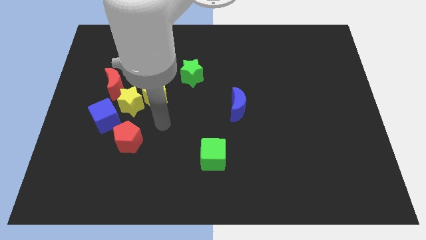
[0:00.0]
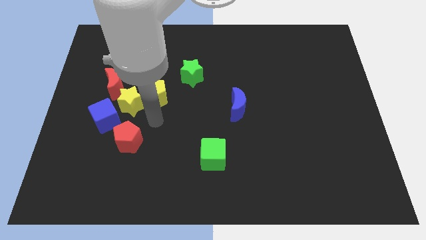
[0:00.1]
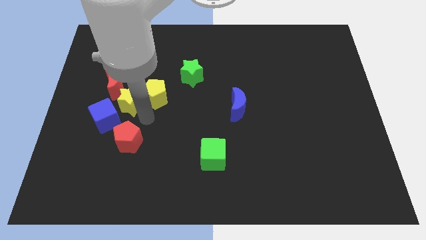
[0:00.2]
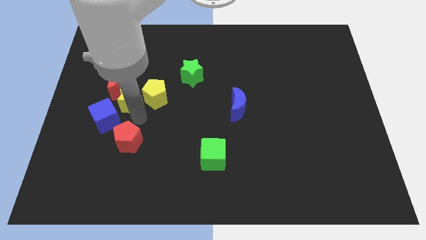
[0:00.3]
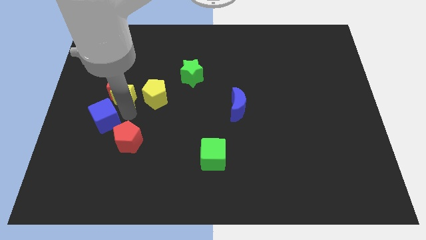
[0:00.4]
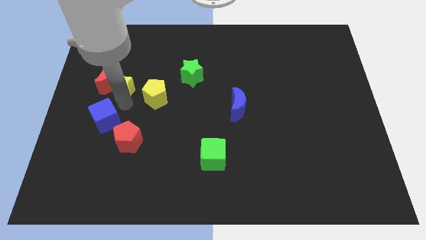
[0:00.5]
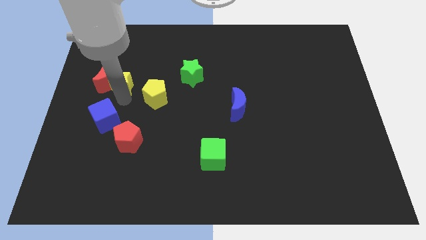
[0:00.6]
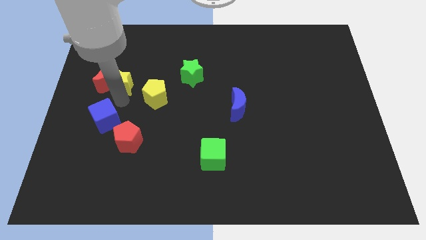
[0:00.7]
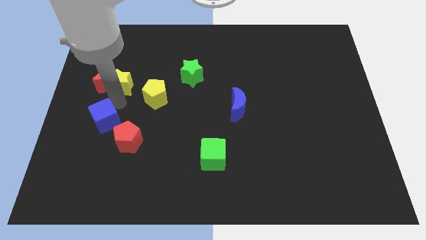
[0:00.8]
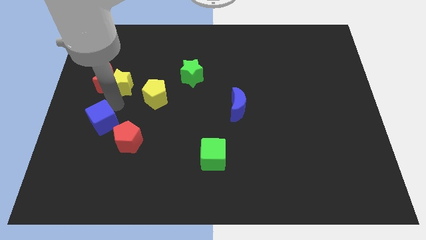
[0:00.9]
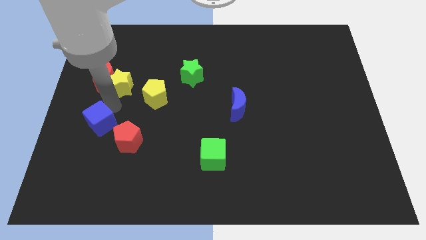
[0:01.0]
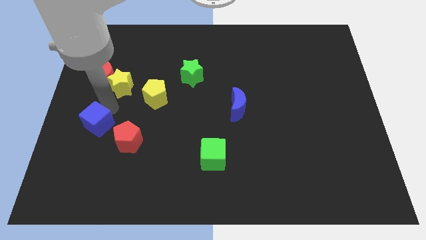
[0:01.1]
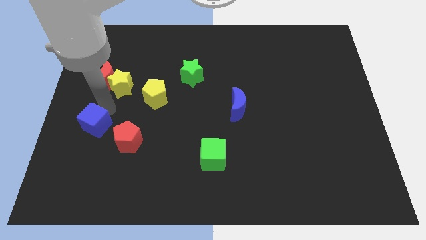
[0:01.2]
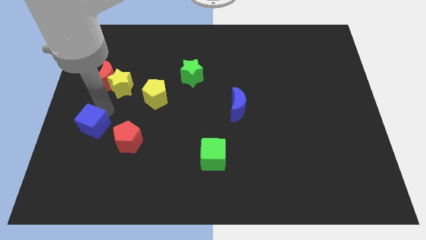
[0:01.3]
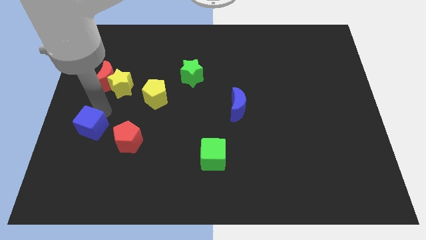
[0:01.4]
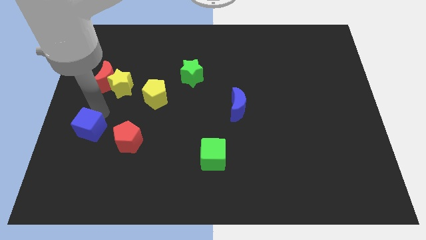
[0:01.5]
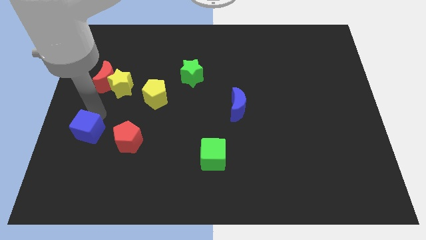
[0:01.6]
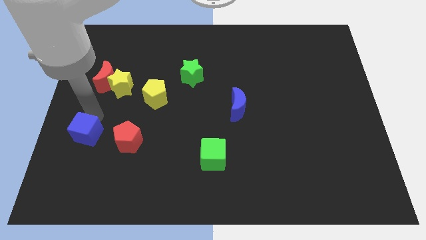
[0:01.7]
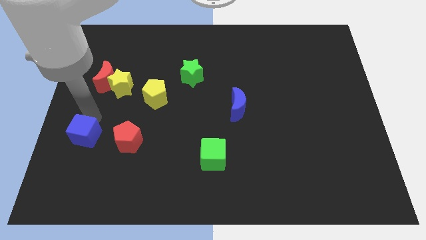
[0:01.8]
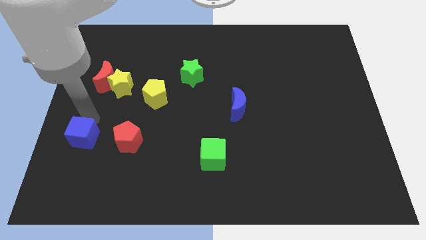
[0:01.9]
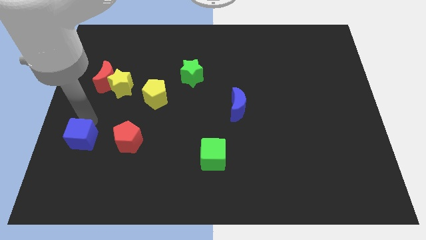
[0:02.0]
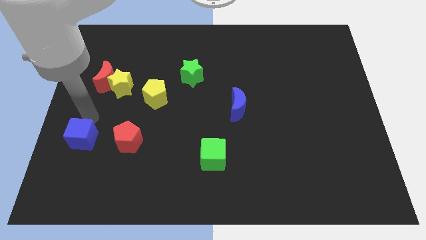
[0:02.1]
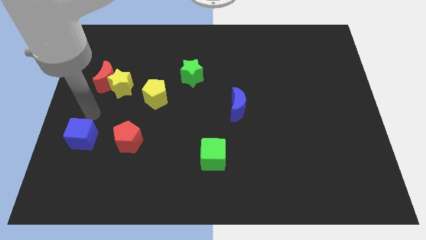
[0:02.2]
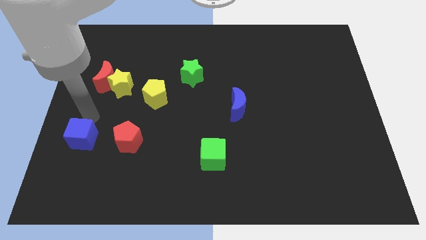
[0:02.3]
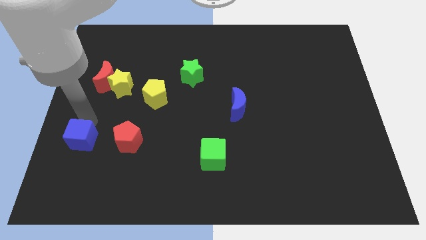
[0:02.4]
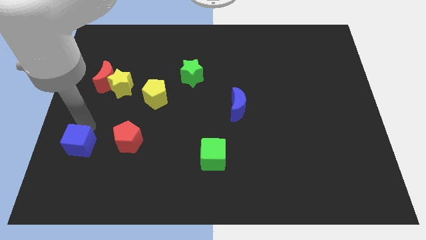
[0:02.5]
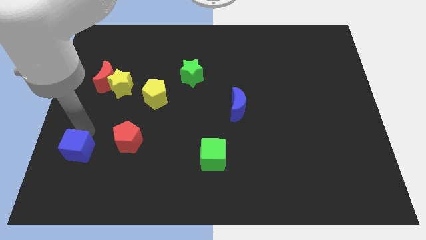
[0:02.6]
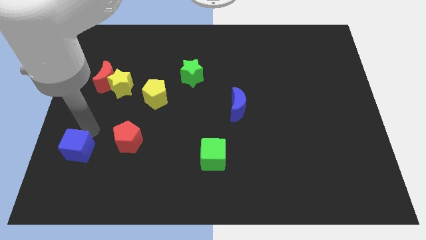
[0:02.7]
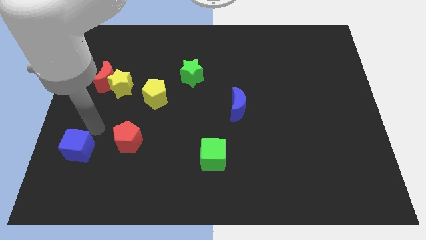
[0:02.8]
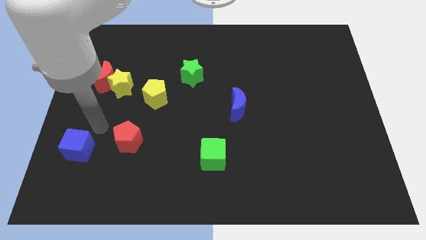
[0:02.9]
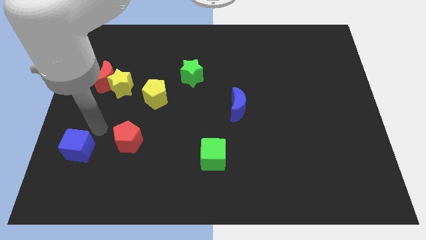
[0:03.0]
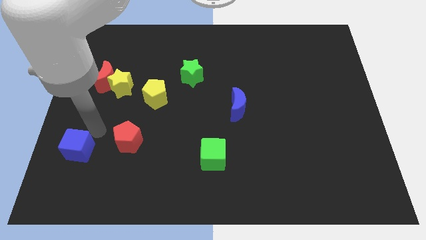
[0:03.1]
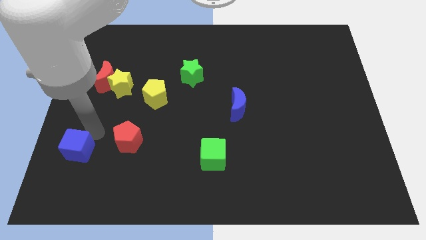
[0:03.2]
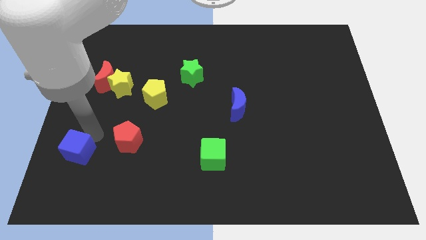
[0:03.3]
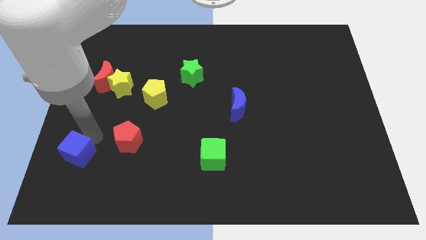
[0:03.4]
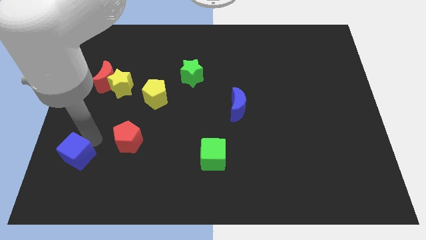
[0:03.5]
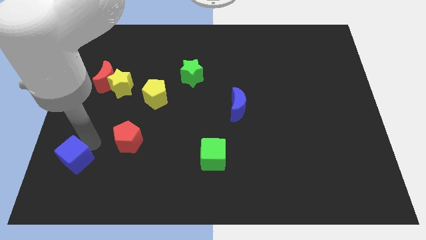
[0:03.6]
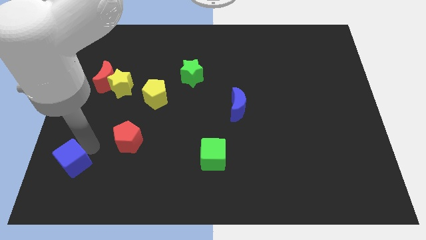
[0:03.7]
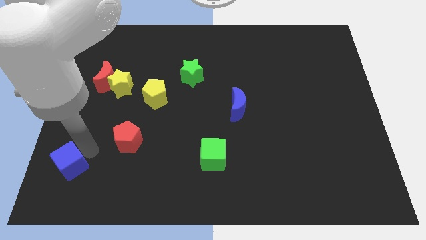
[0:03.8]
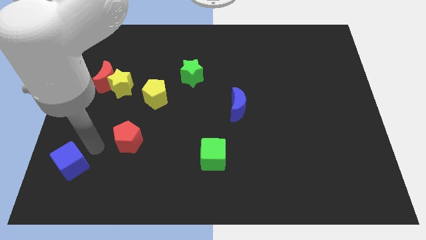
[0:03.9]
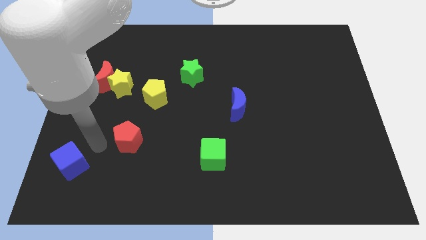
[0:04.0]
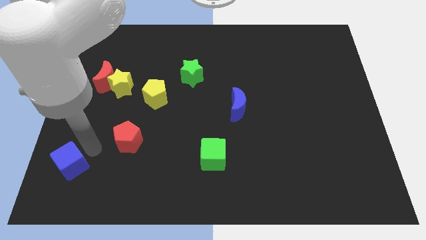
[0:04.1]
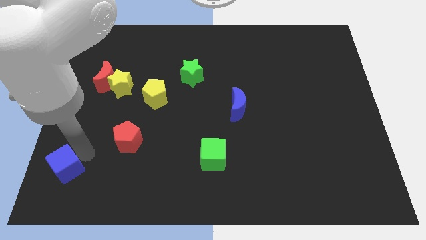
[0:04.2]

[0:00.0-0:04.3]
slide the blue cube to the lower left corner

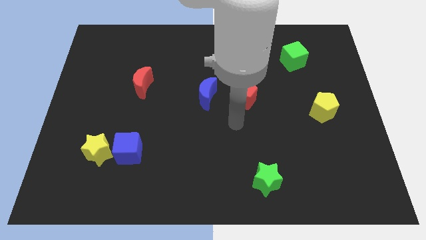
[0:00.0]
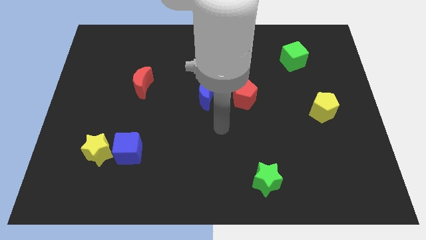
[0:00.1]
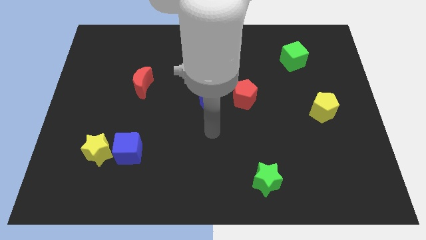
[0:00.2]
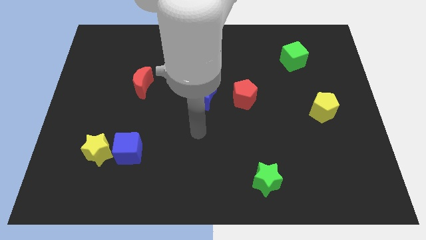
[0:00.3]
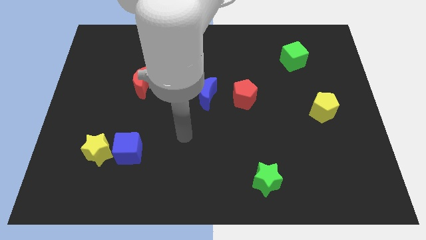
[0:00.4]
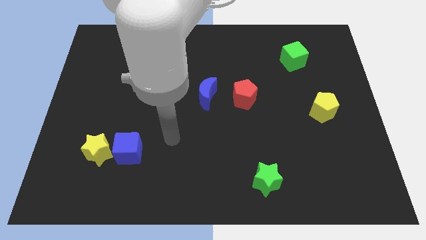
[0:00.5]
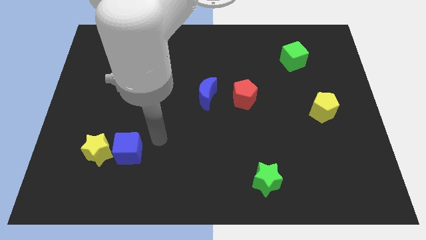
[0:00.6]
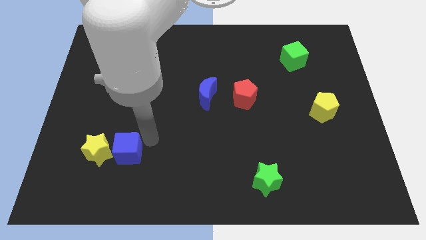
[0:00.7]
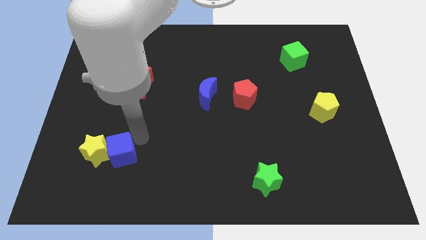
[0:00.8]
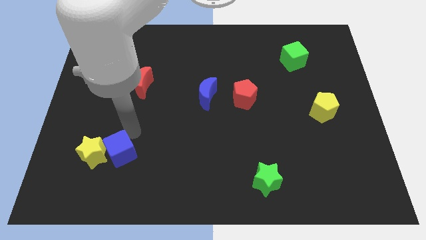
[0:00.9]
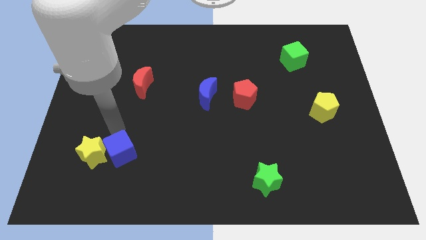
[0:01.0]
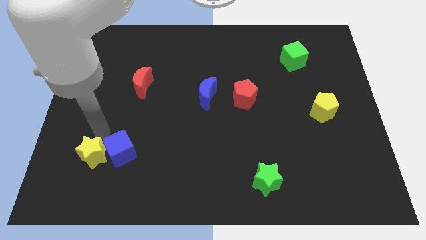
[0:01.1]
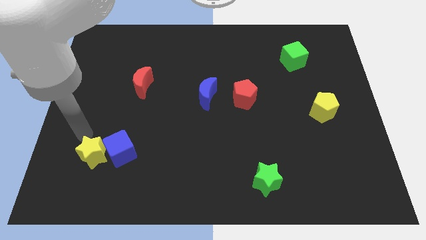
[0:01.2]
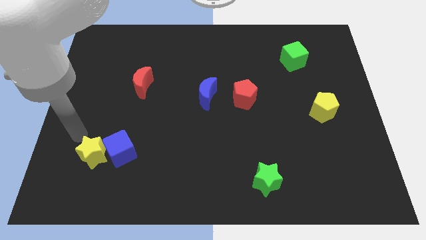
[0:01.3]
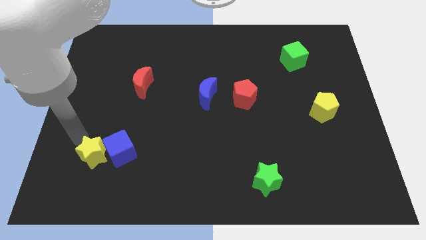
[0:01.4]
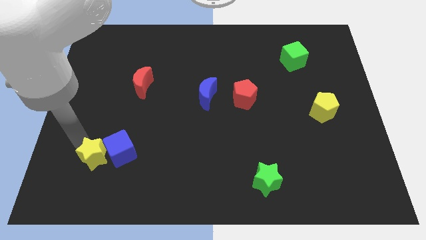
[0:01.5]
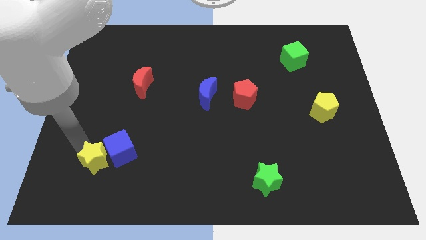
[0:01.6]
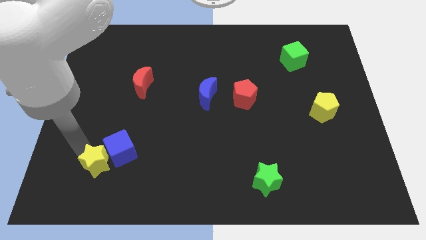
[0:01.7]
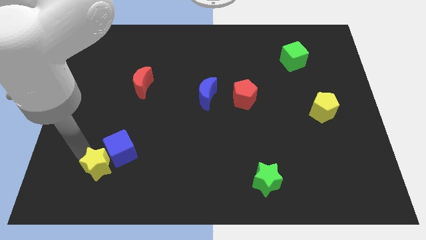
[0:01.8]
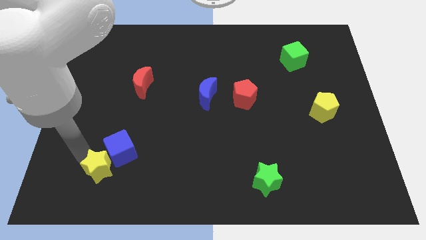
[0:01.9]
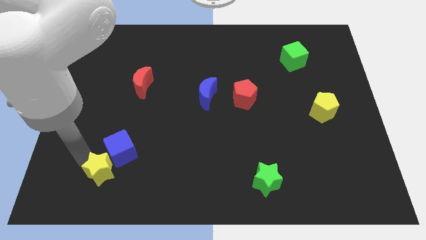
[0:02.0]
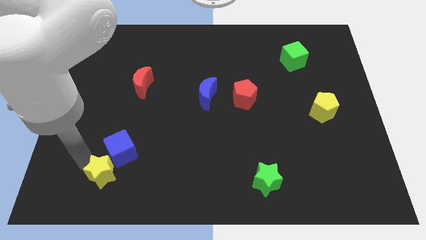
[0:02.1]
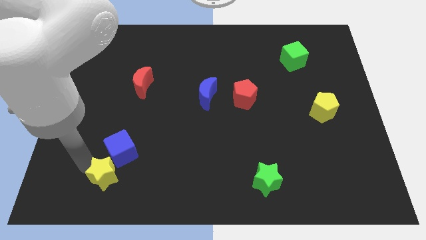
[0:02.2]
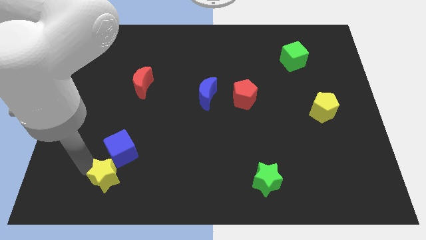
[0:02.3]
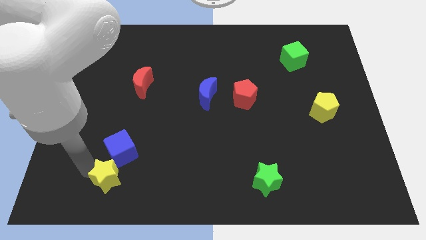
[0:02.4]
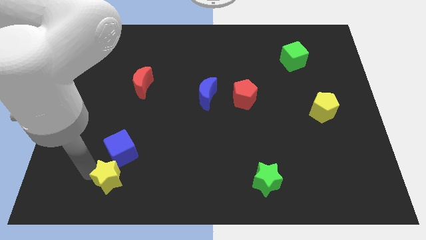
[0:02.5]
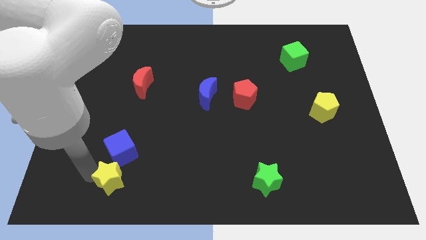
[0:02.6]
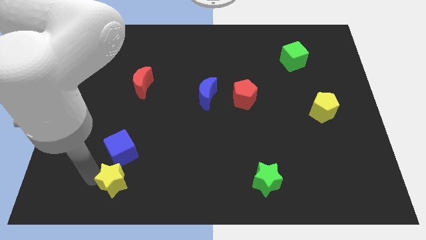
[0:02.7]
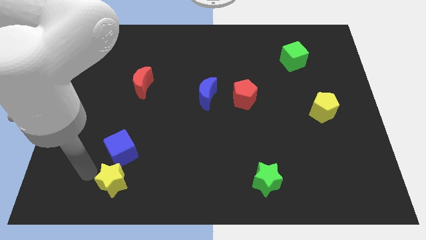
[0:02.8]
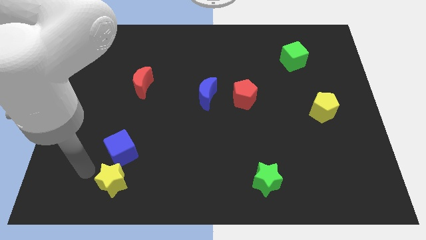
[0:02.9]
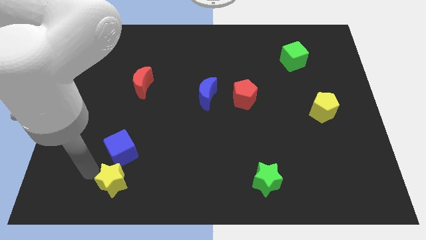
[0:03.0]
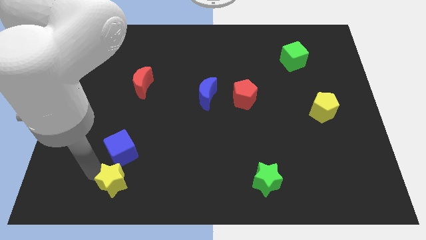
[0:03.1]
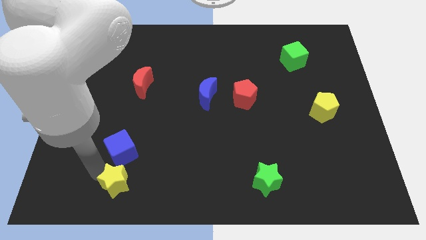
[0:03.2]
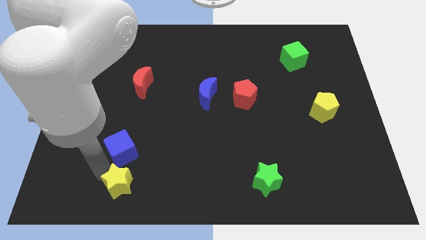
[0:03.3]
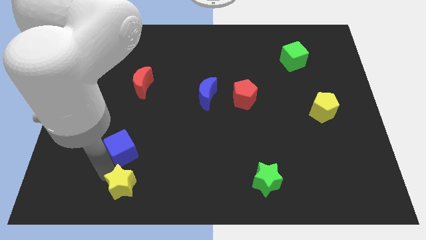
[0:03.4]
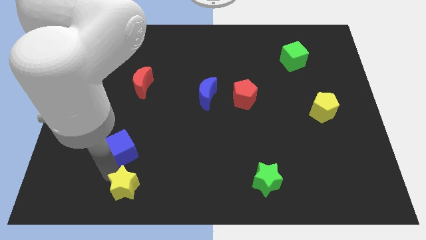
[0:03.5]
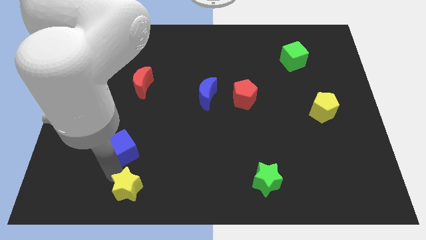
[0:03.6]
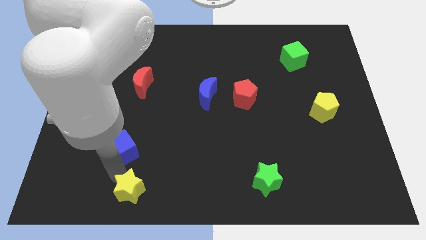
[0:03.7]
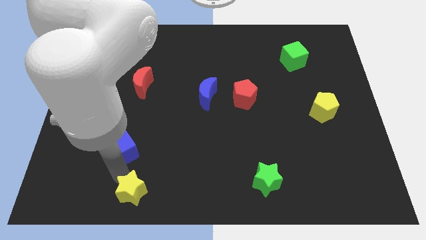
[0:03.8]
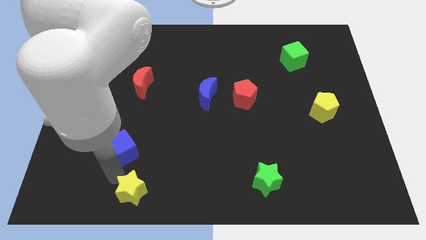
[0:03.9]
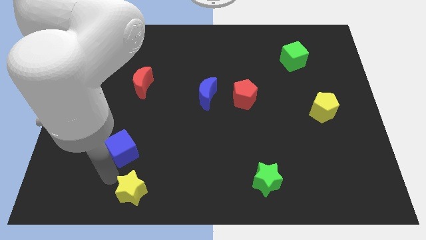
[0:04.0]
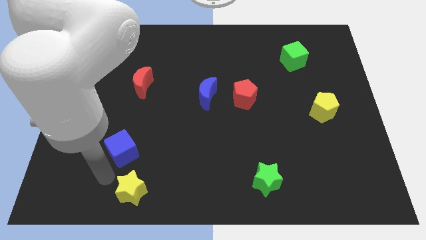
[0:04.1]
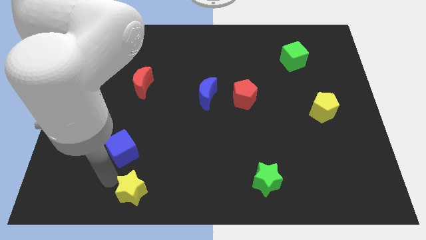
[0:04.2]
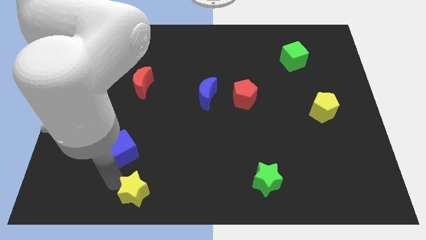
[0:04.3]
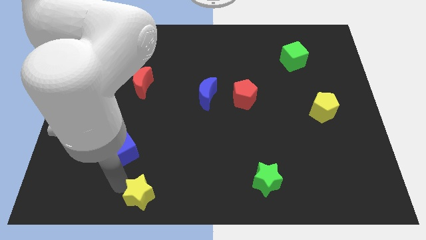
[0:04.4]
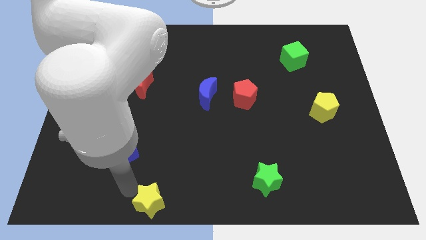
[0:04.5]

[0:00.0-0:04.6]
push the yellow star to the bottom side
